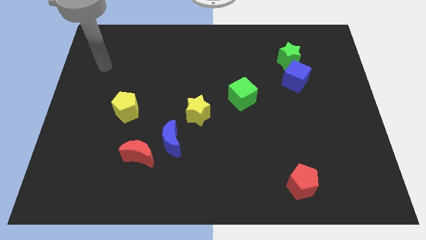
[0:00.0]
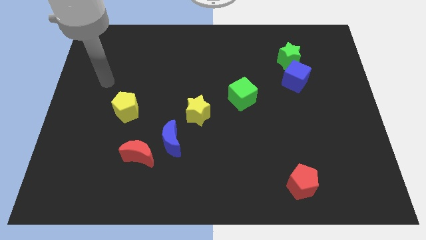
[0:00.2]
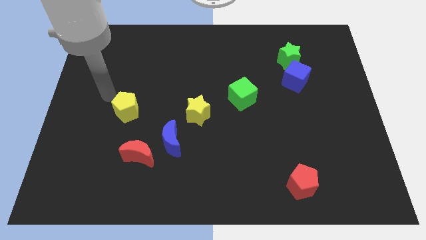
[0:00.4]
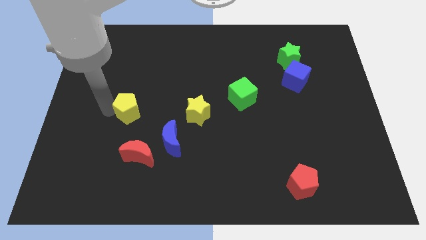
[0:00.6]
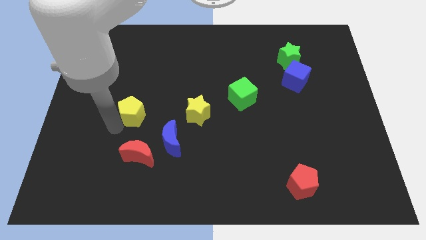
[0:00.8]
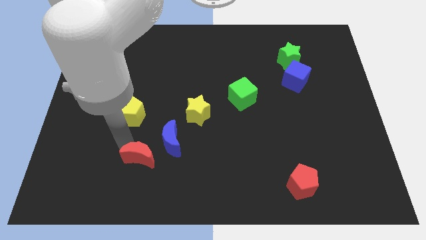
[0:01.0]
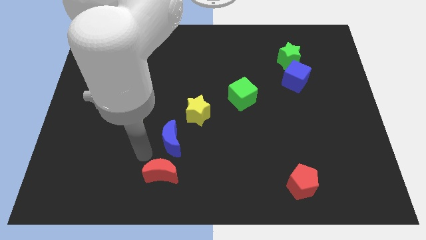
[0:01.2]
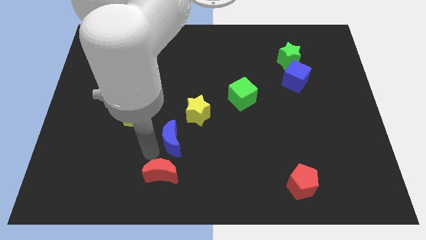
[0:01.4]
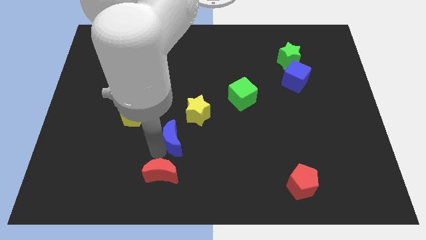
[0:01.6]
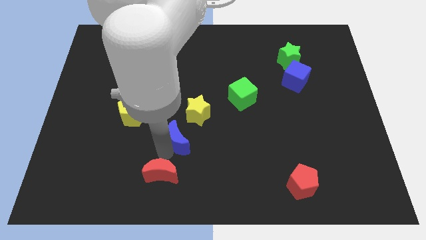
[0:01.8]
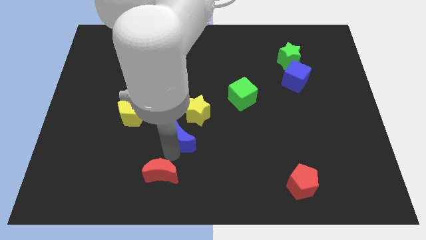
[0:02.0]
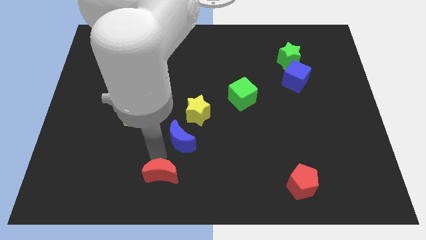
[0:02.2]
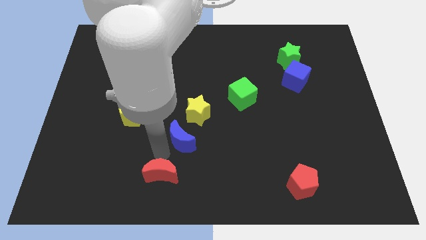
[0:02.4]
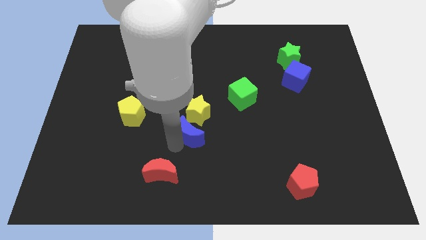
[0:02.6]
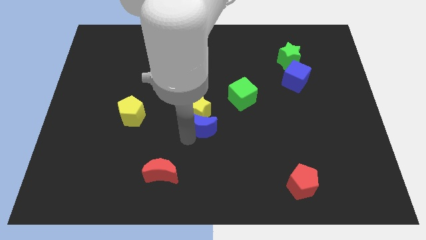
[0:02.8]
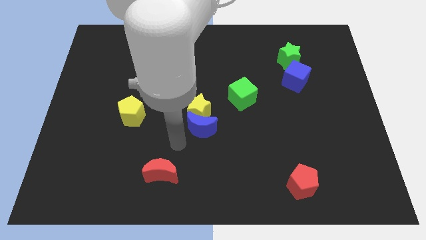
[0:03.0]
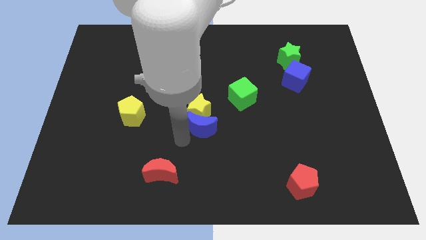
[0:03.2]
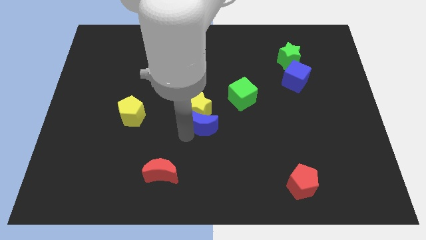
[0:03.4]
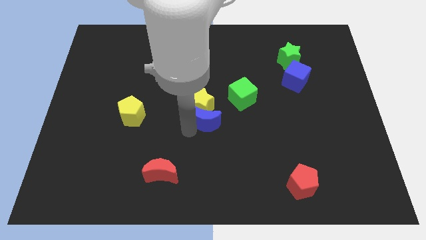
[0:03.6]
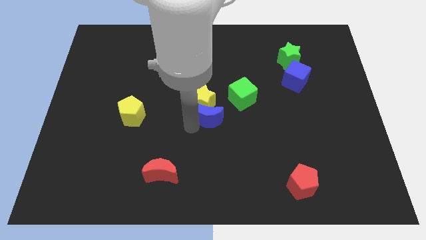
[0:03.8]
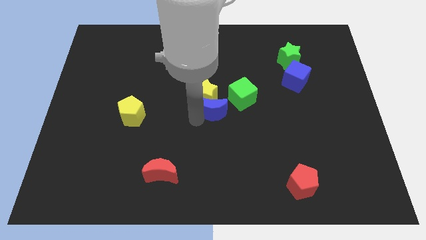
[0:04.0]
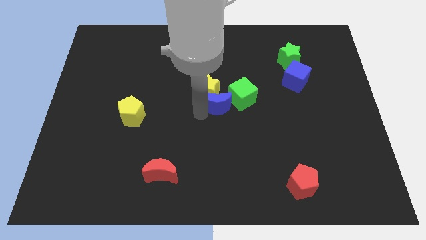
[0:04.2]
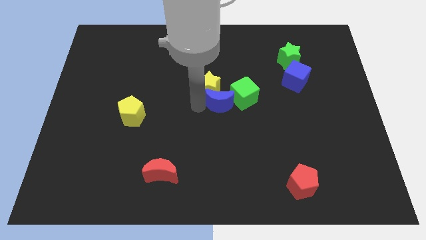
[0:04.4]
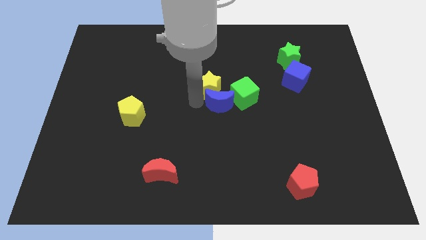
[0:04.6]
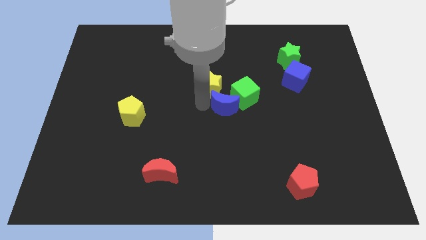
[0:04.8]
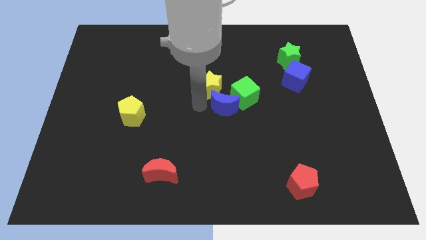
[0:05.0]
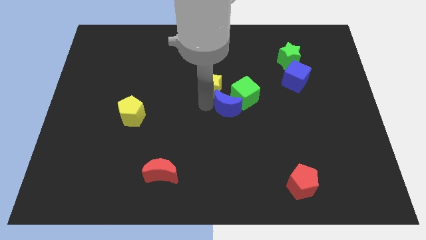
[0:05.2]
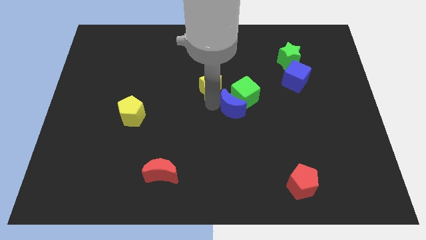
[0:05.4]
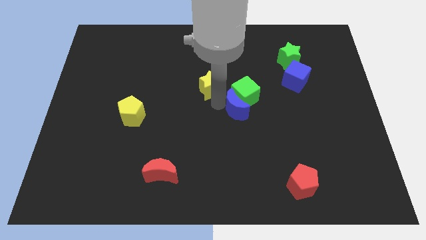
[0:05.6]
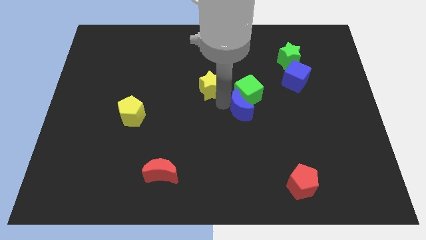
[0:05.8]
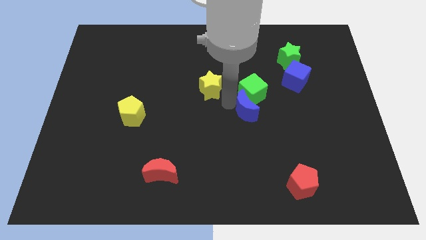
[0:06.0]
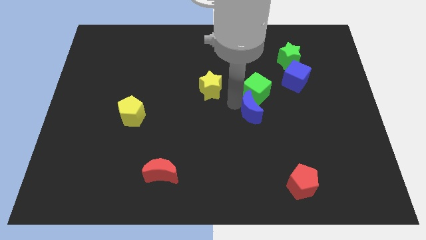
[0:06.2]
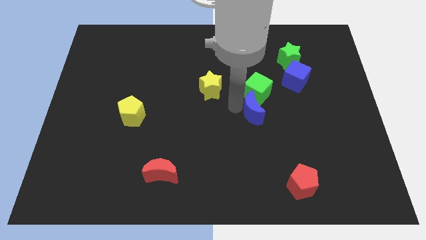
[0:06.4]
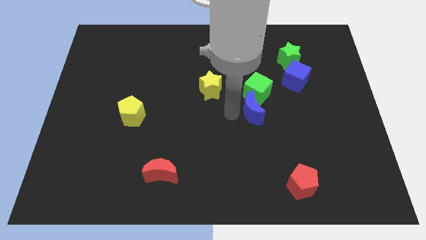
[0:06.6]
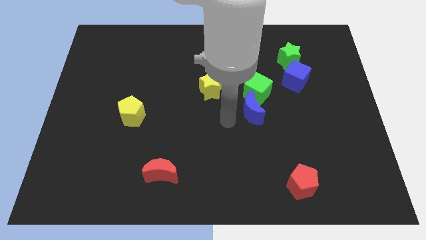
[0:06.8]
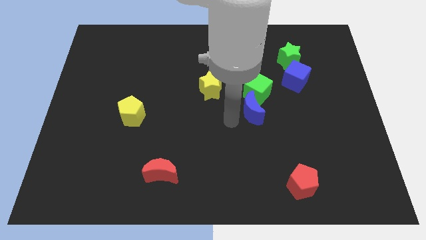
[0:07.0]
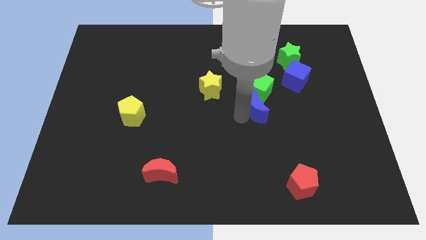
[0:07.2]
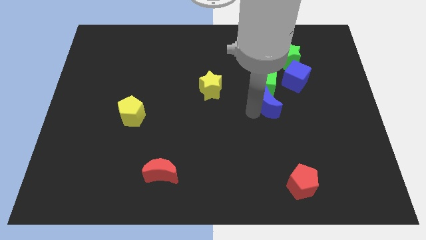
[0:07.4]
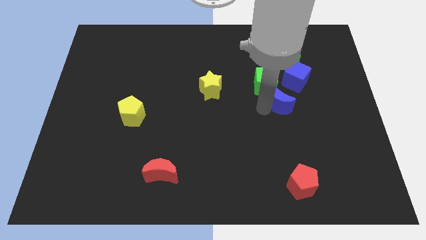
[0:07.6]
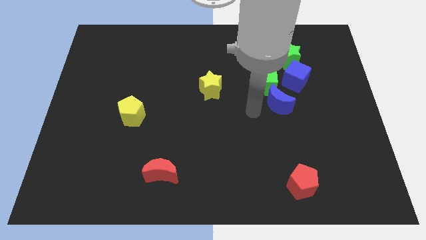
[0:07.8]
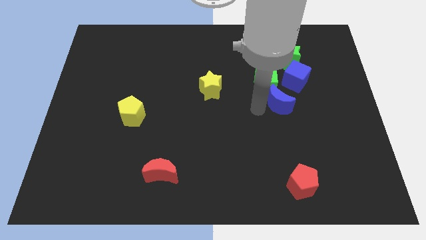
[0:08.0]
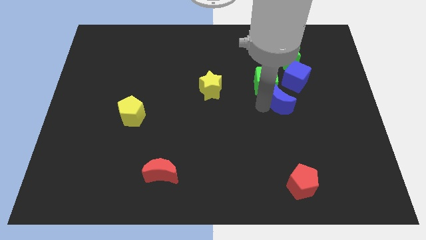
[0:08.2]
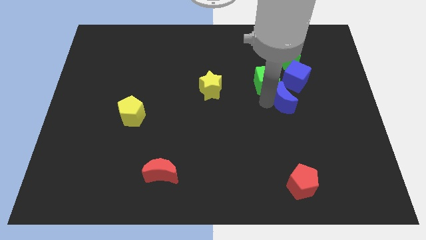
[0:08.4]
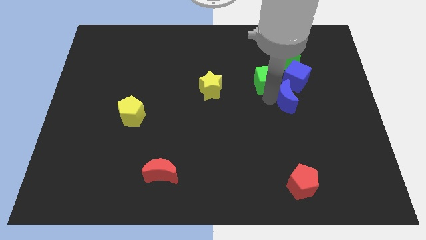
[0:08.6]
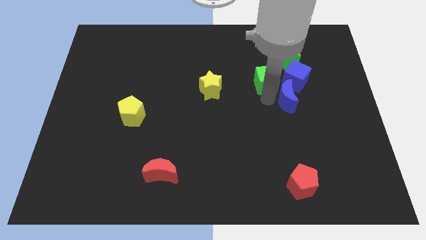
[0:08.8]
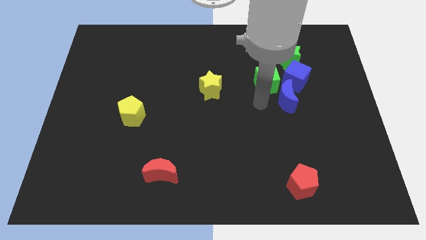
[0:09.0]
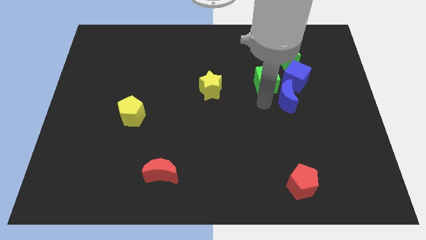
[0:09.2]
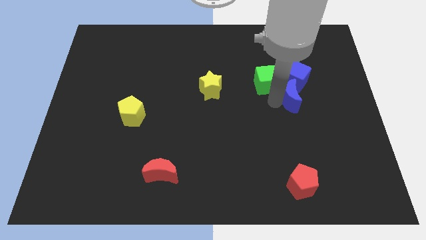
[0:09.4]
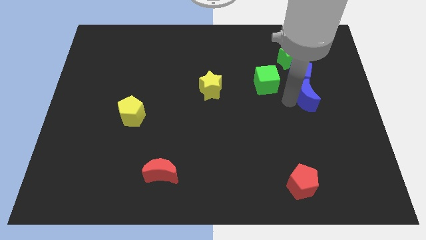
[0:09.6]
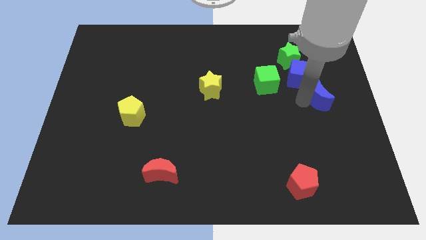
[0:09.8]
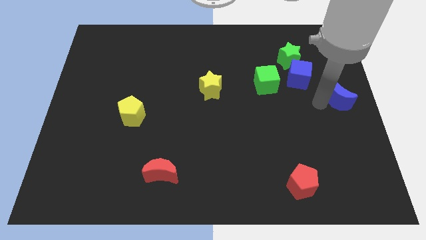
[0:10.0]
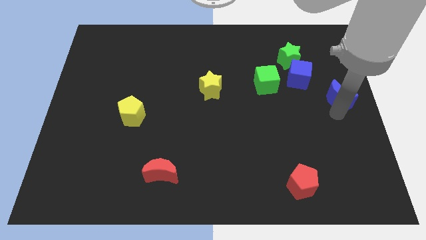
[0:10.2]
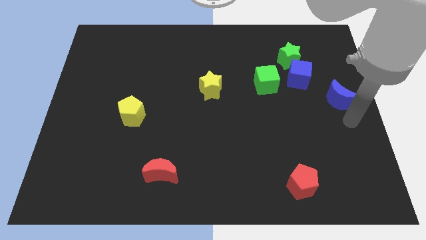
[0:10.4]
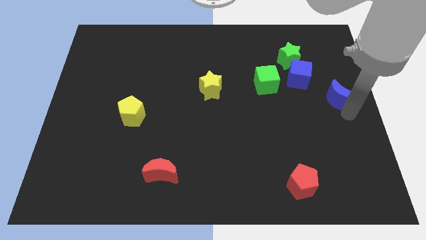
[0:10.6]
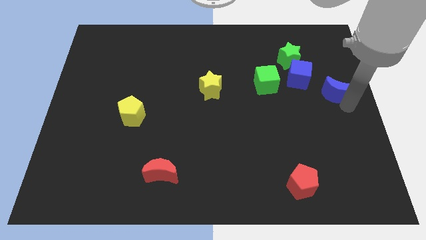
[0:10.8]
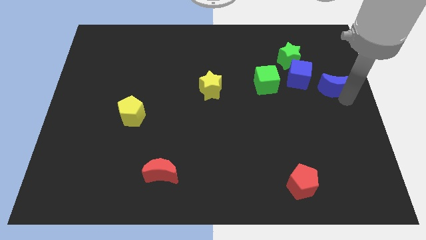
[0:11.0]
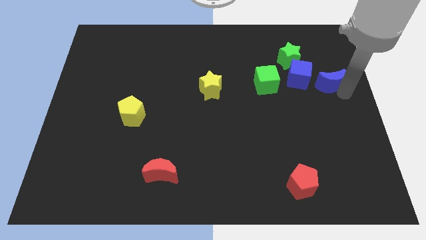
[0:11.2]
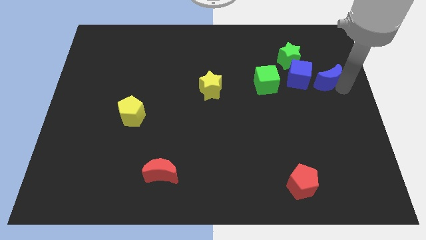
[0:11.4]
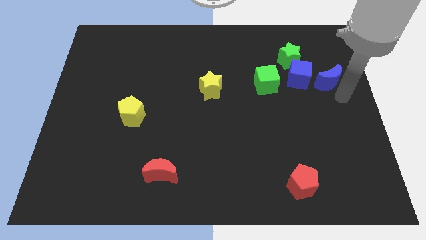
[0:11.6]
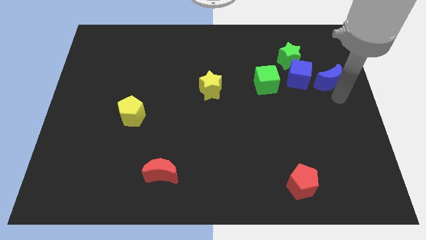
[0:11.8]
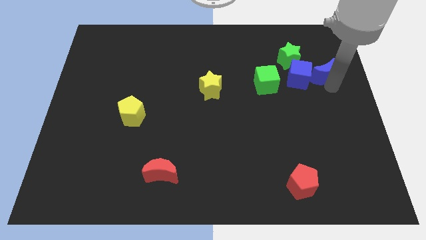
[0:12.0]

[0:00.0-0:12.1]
push the blue moon to the top right of the blue cube

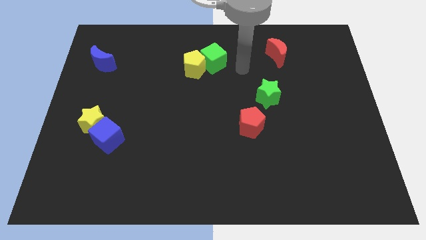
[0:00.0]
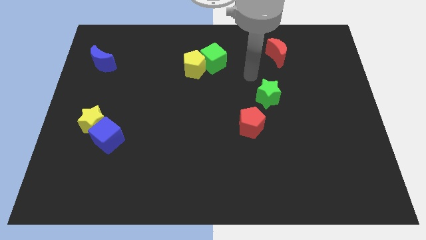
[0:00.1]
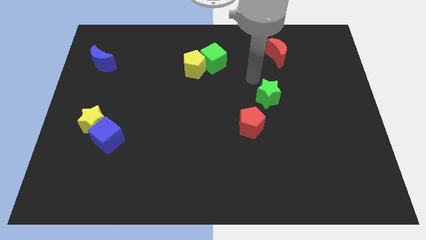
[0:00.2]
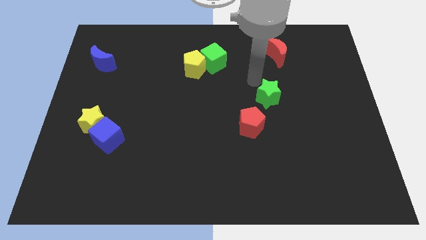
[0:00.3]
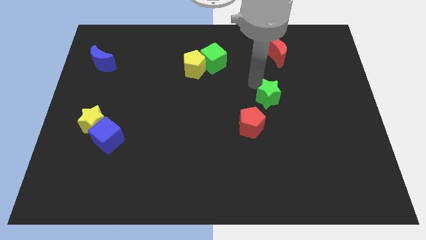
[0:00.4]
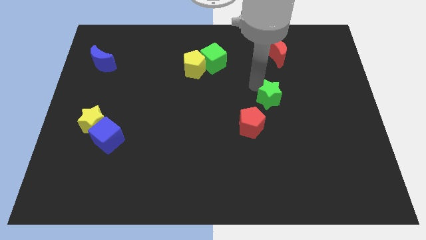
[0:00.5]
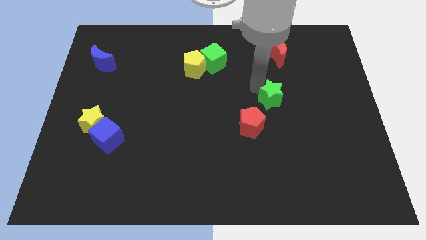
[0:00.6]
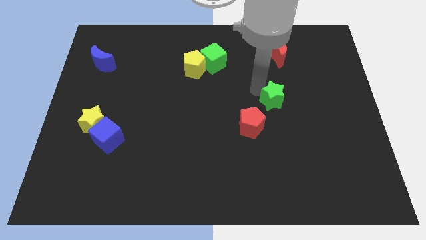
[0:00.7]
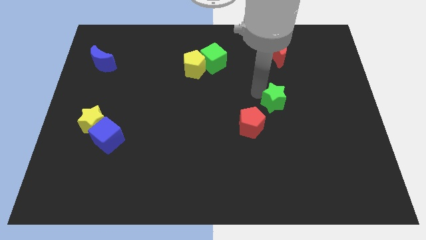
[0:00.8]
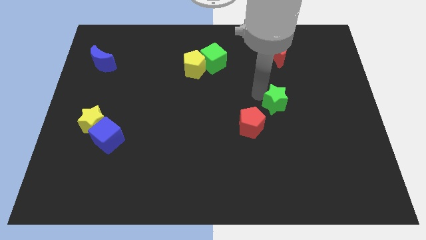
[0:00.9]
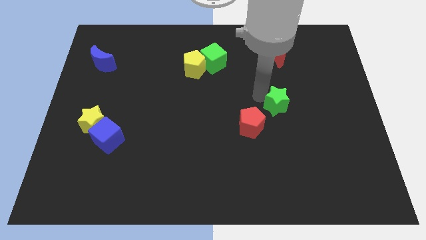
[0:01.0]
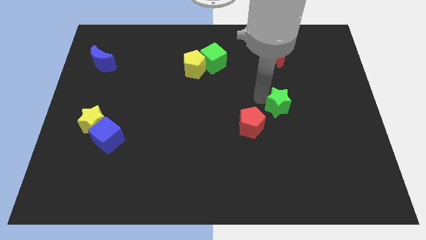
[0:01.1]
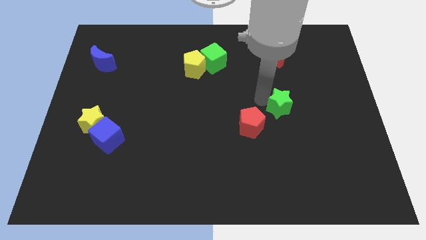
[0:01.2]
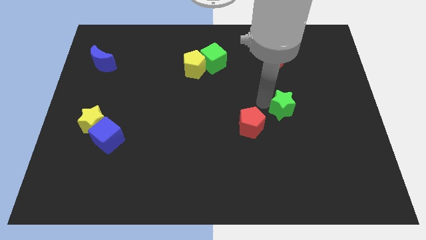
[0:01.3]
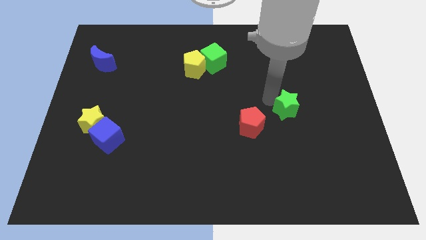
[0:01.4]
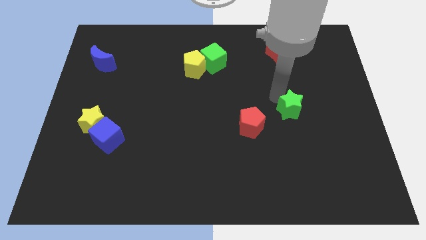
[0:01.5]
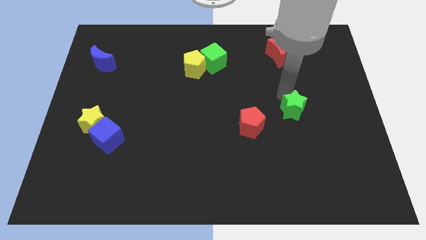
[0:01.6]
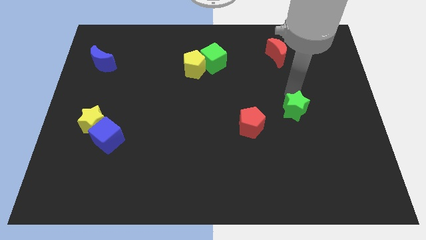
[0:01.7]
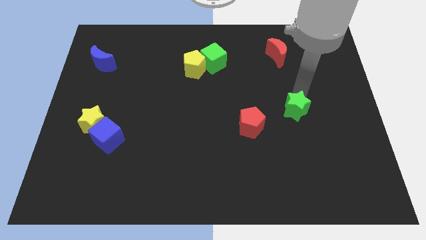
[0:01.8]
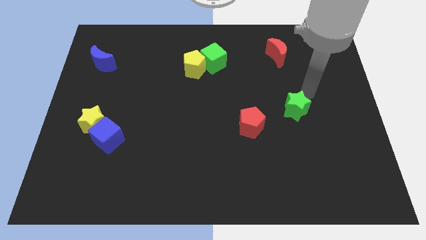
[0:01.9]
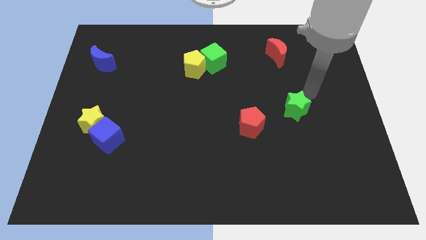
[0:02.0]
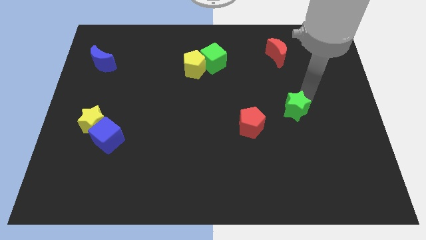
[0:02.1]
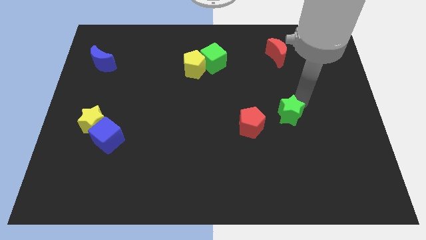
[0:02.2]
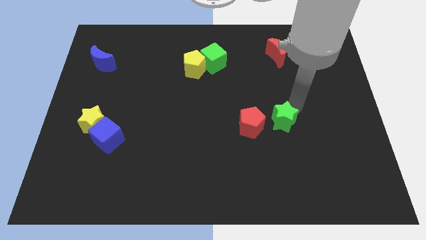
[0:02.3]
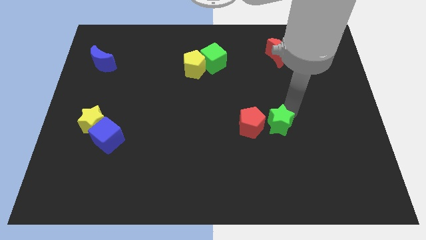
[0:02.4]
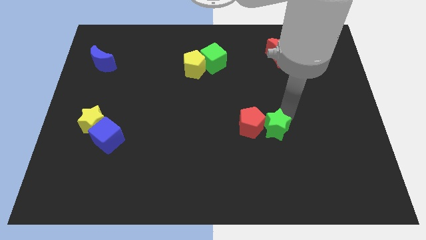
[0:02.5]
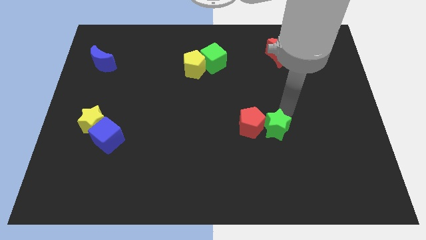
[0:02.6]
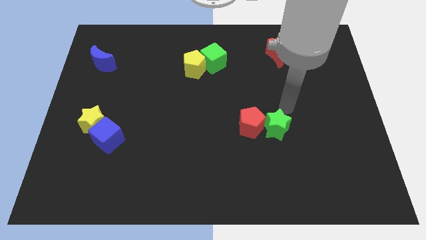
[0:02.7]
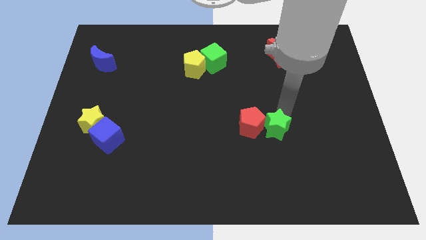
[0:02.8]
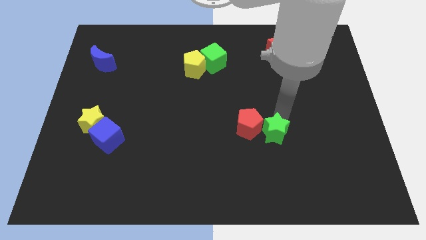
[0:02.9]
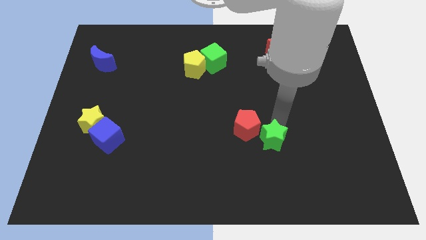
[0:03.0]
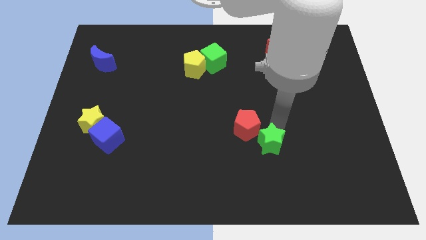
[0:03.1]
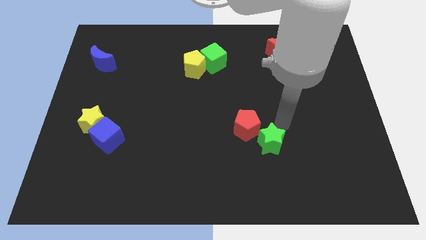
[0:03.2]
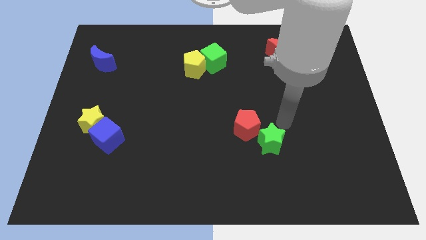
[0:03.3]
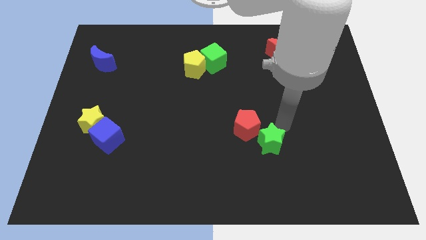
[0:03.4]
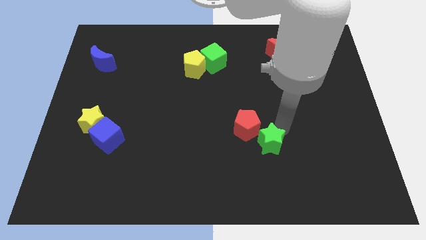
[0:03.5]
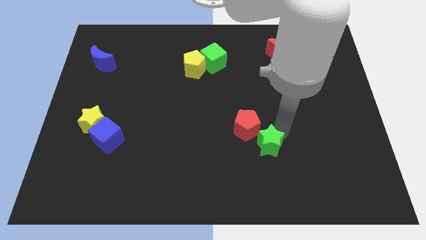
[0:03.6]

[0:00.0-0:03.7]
put the green star to the bottom side of the red pentagon
